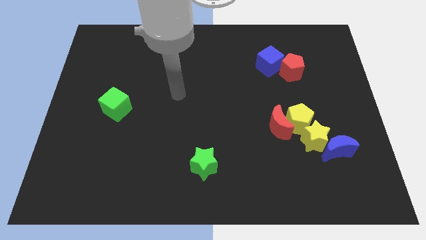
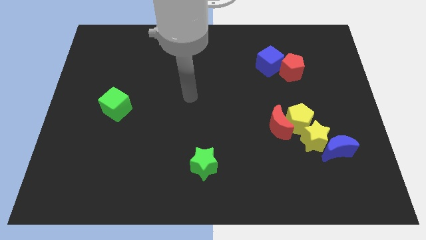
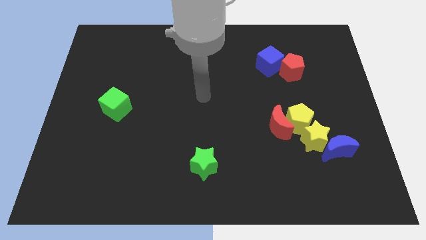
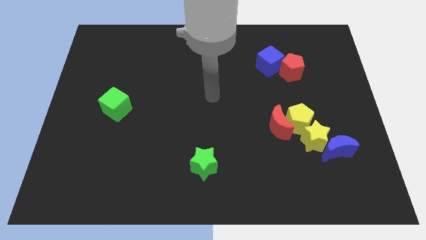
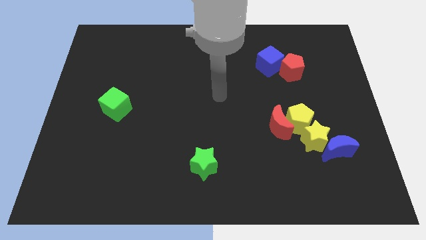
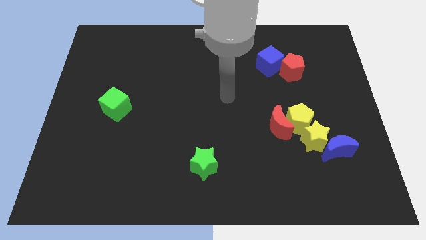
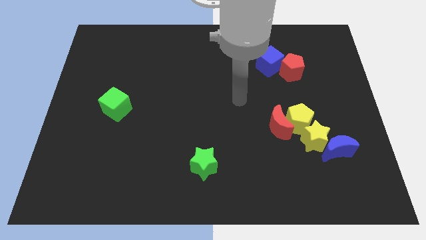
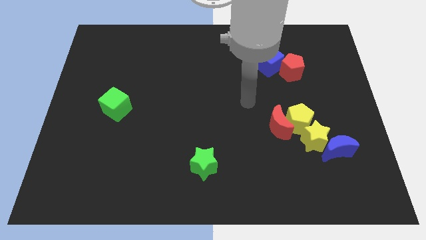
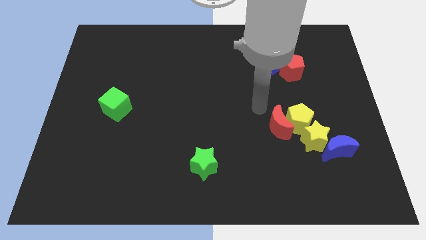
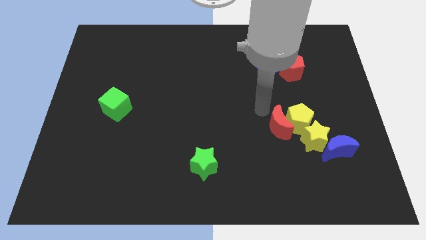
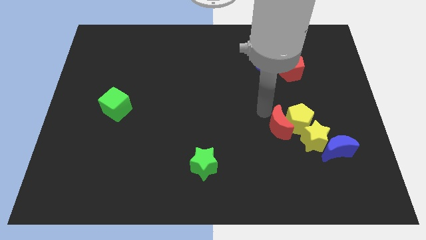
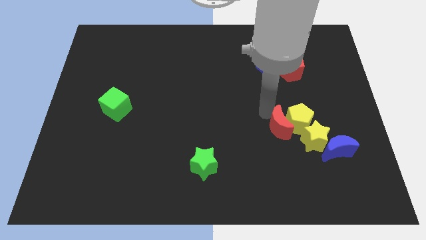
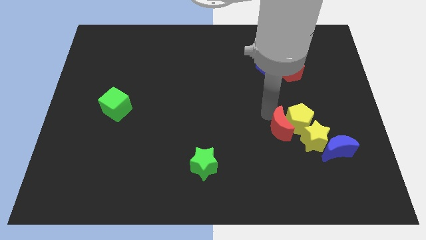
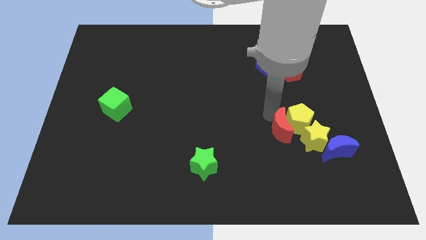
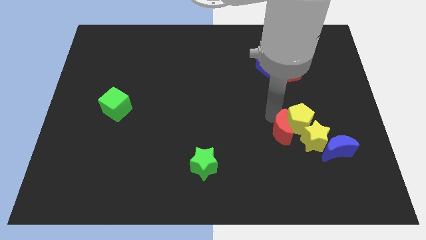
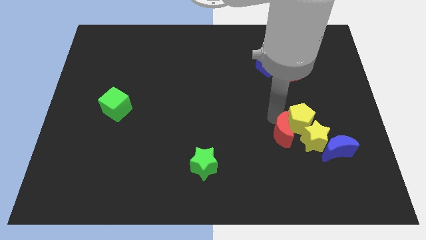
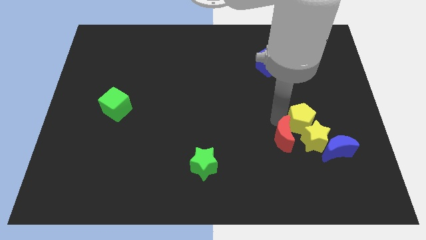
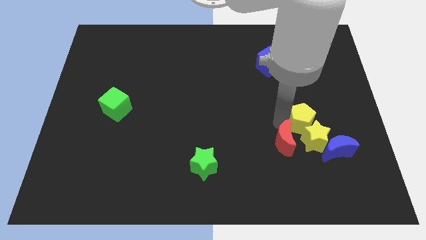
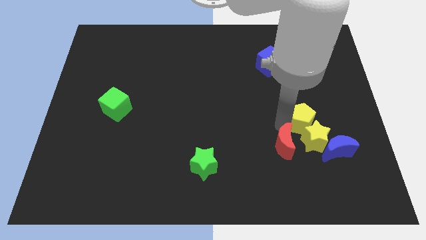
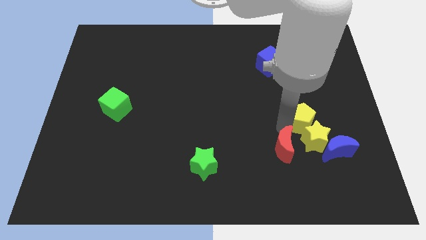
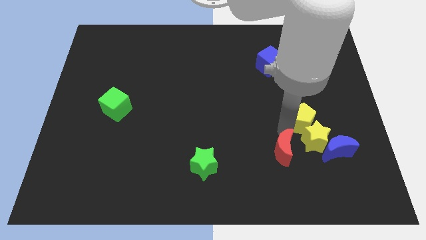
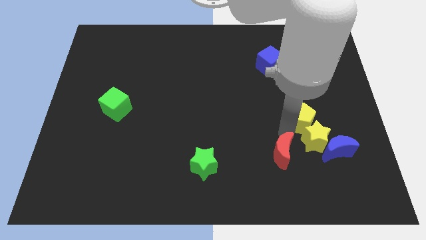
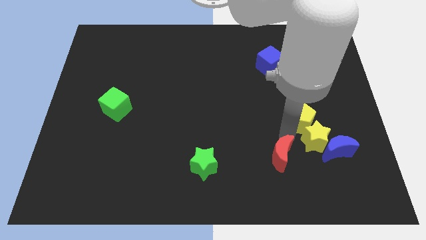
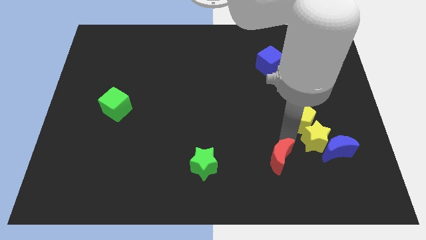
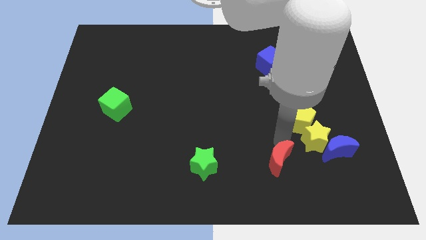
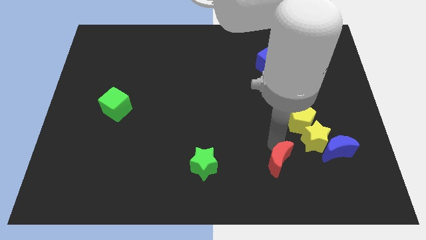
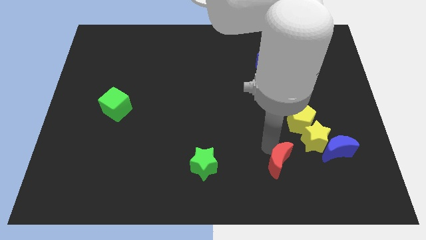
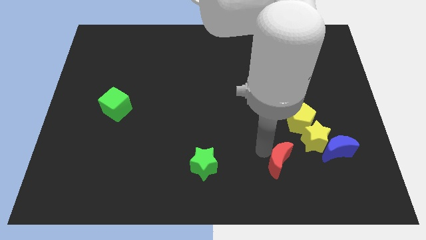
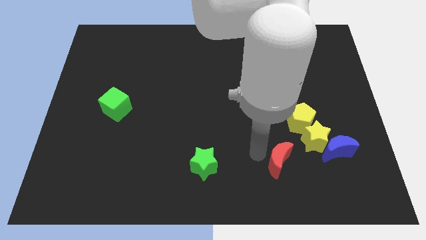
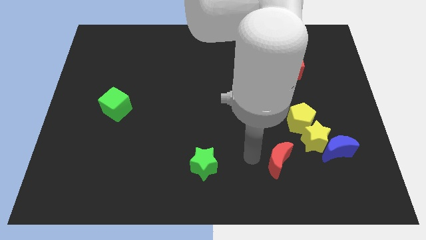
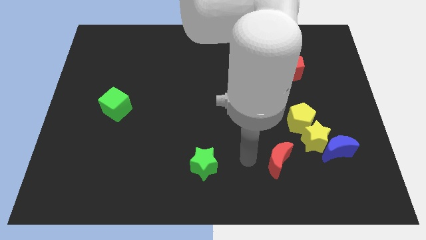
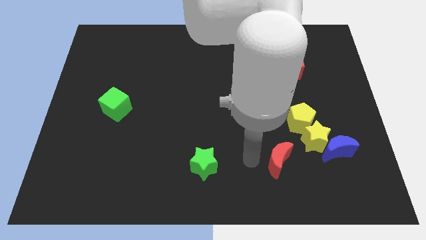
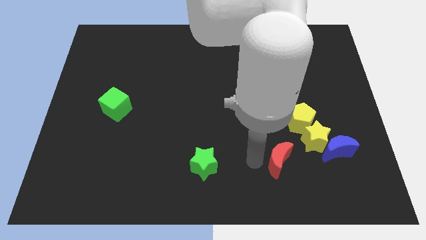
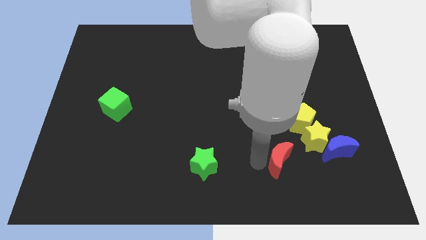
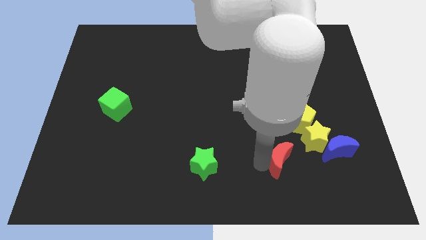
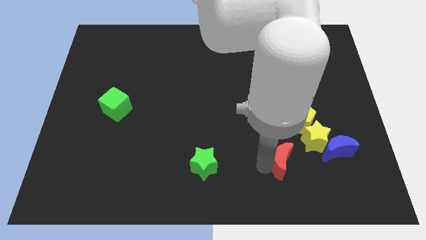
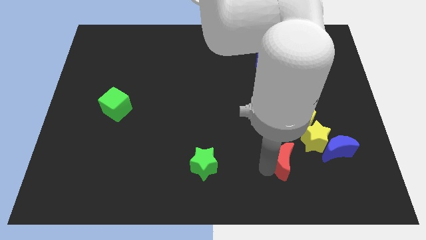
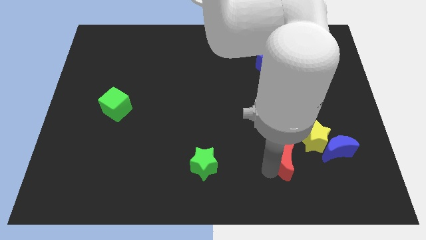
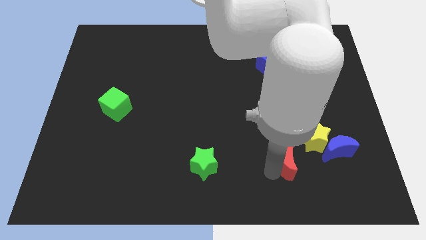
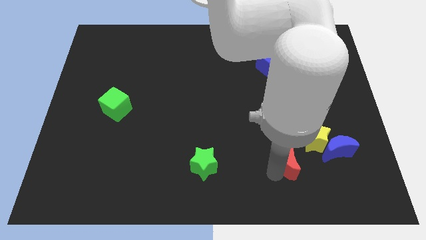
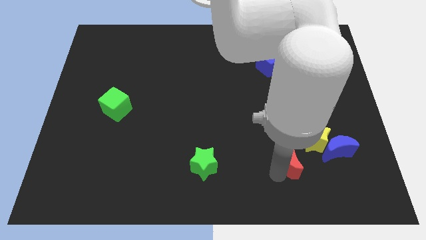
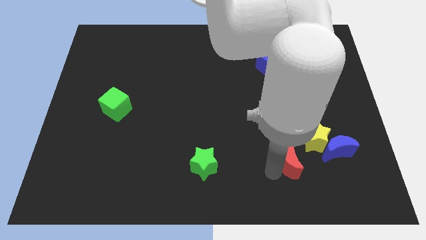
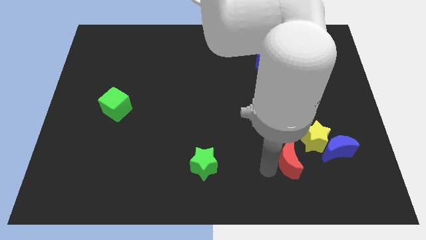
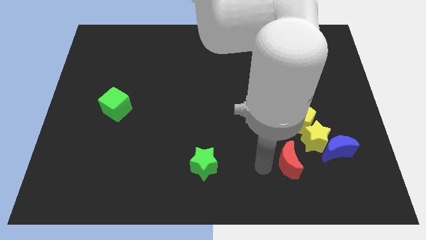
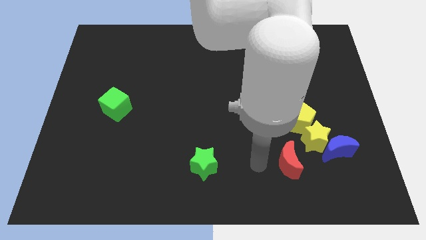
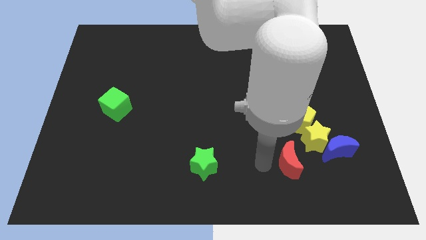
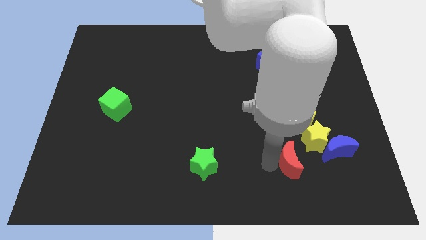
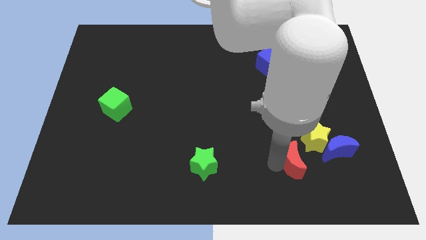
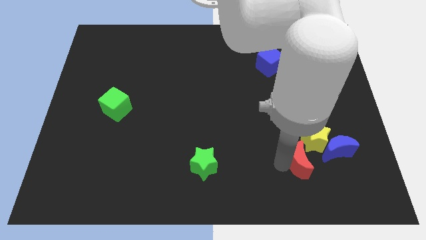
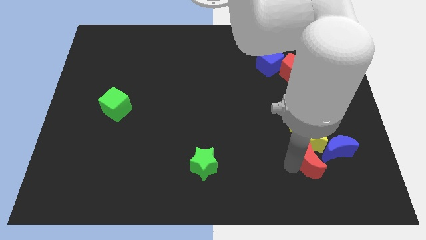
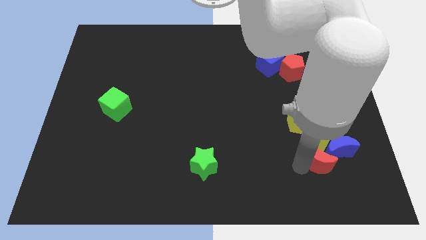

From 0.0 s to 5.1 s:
slide the red moon towards the blue moon

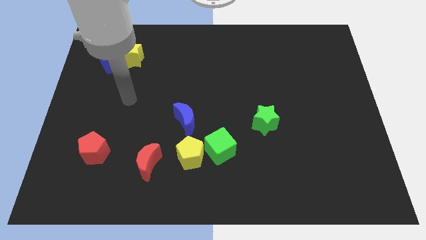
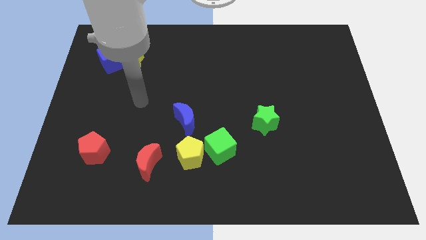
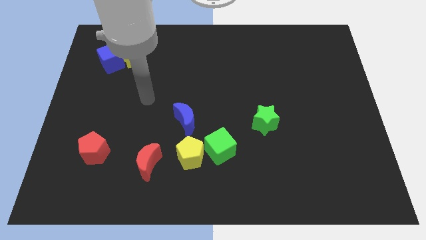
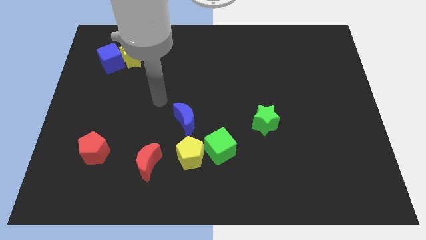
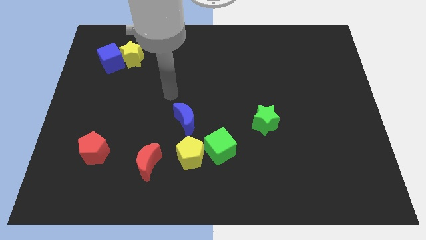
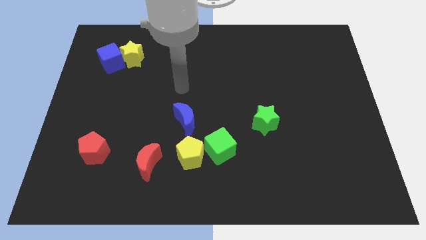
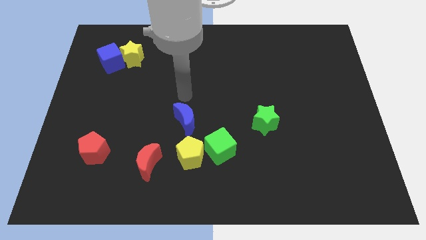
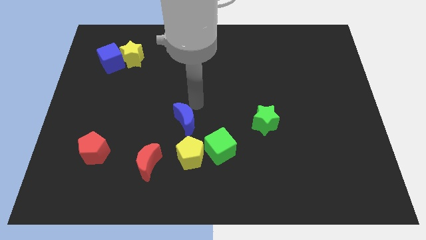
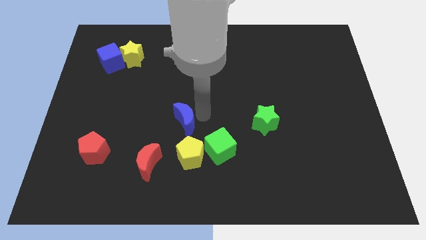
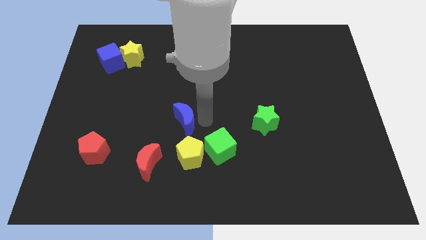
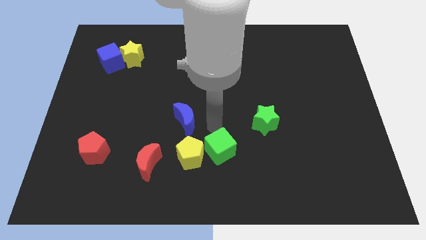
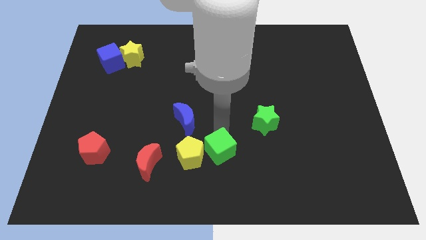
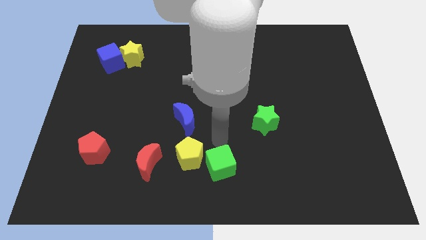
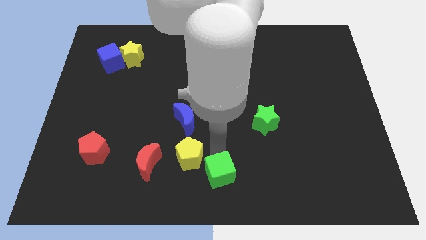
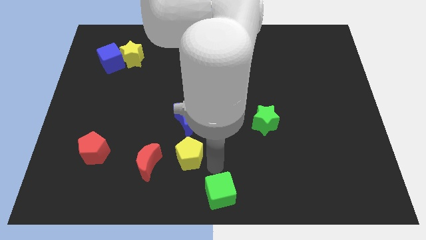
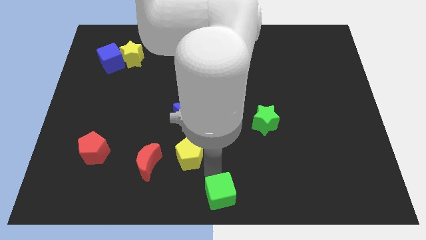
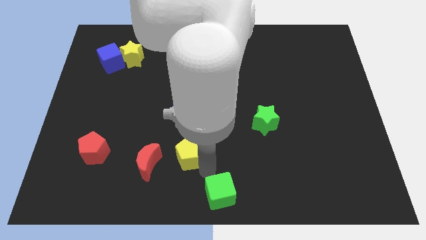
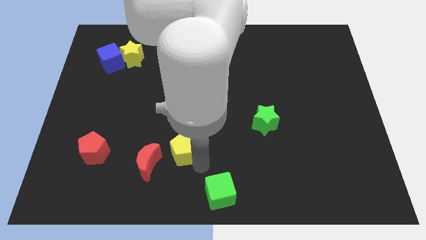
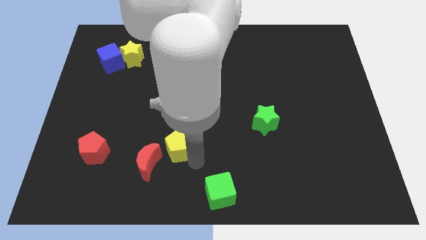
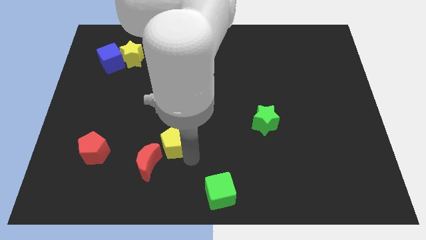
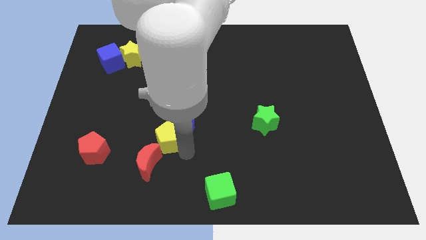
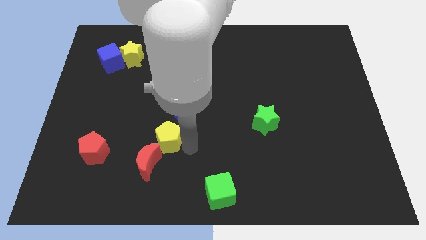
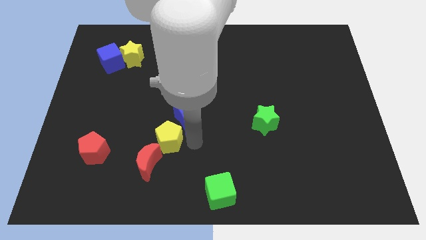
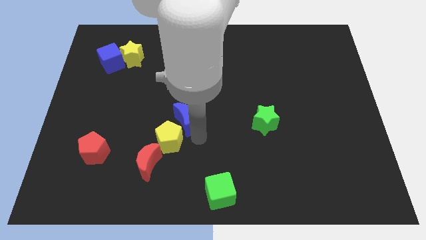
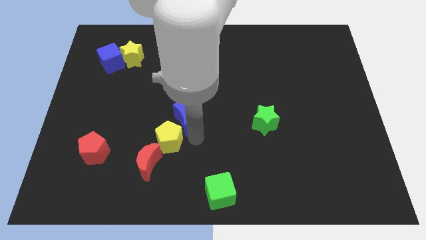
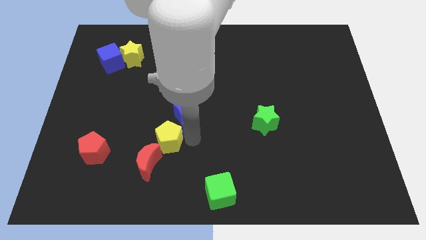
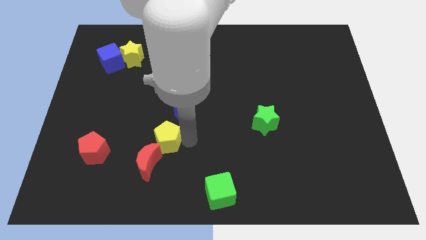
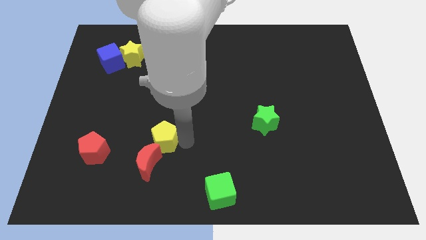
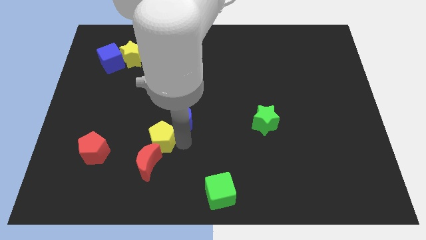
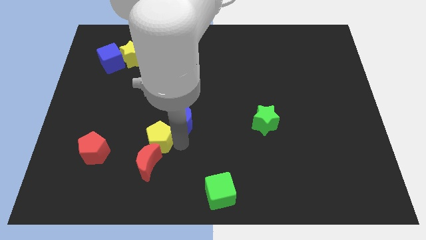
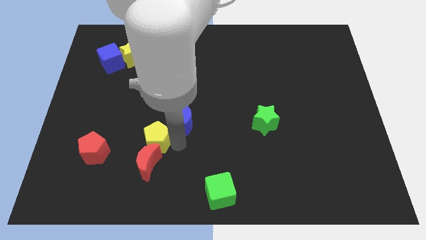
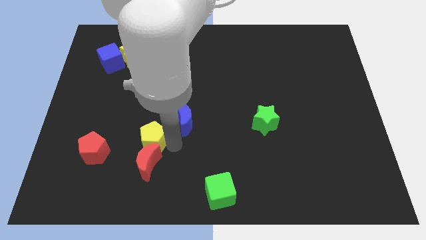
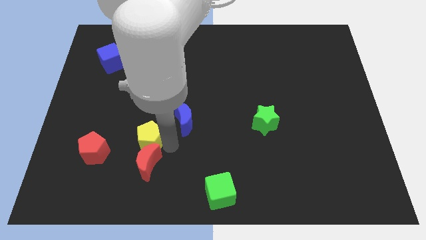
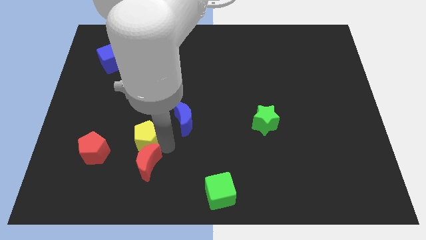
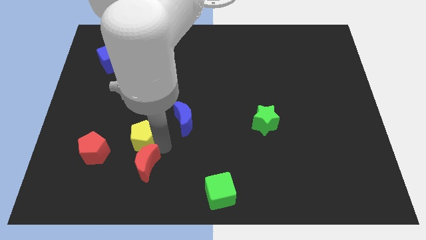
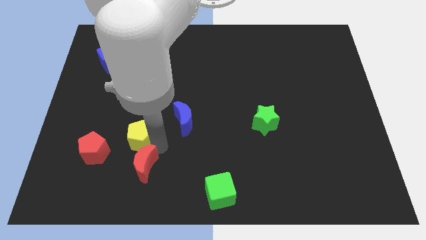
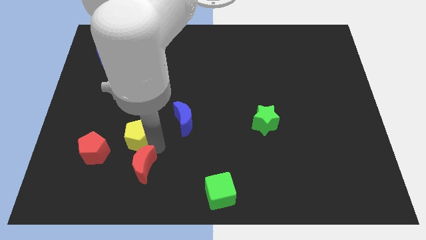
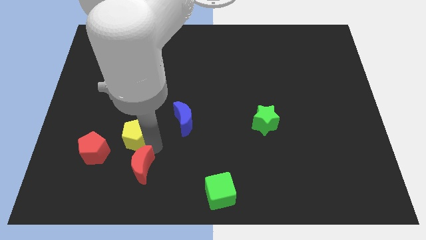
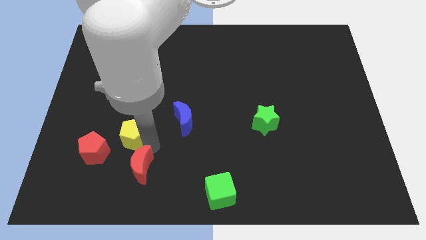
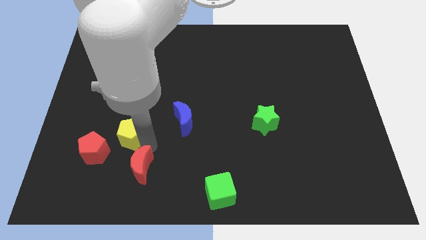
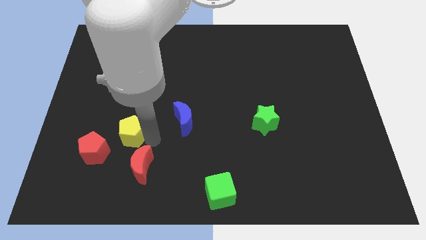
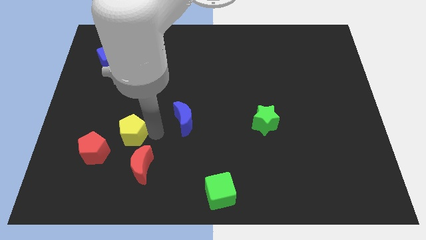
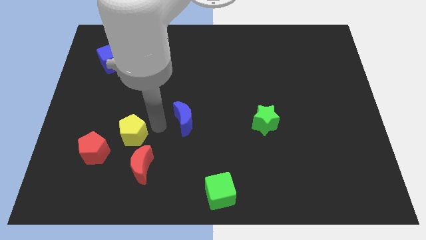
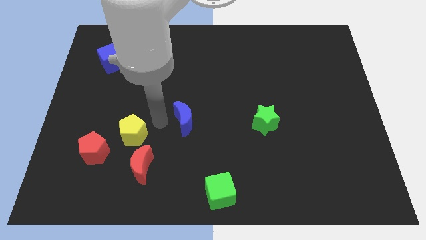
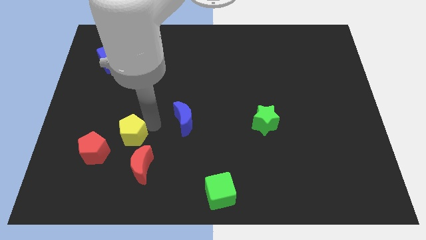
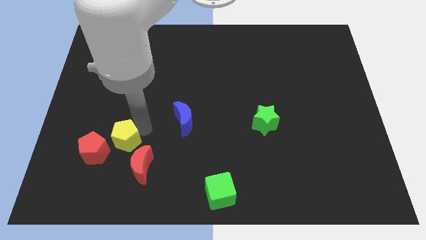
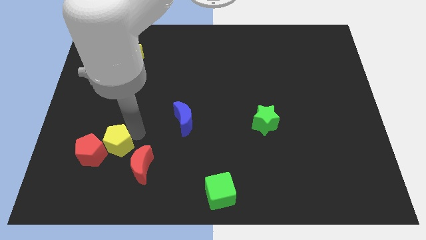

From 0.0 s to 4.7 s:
move the yellow pentagon to the red pentagon
